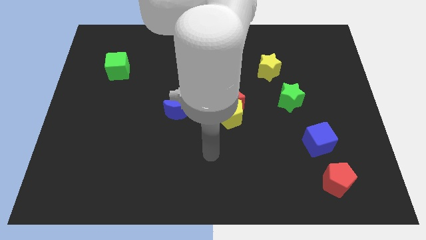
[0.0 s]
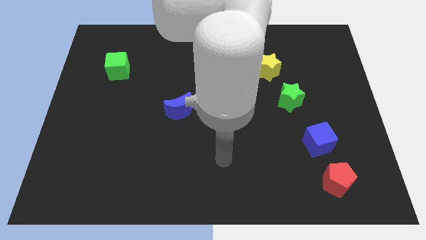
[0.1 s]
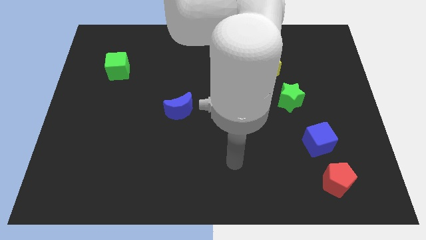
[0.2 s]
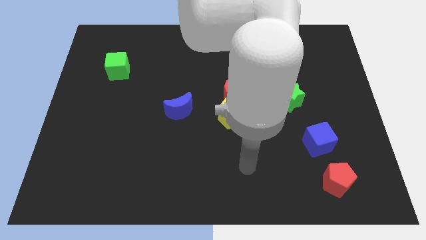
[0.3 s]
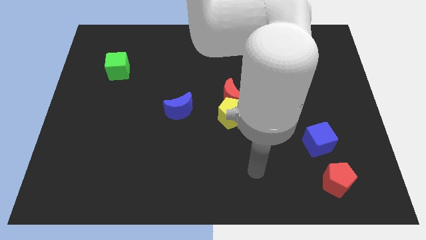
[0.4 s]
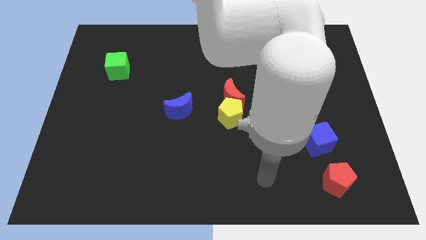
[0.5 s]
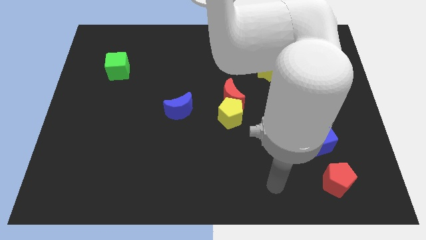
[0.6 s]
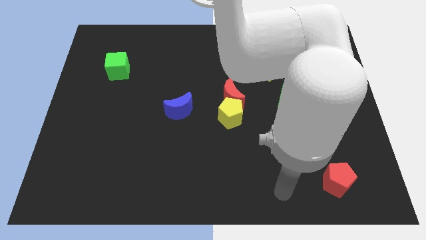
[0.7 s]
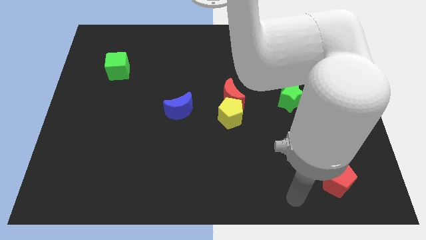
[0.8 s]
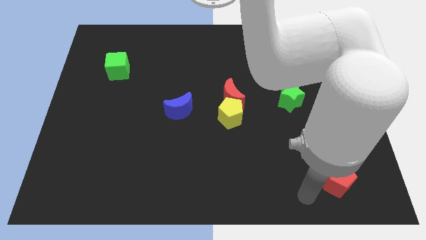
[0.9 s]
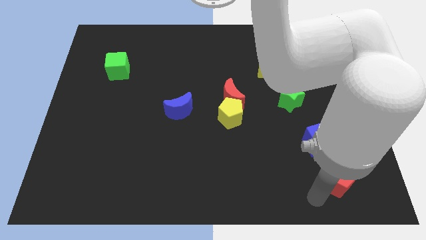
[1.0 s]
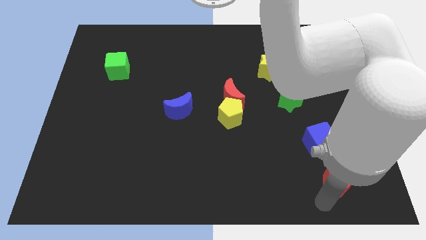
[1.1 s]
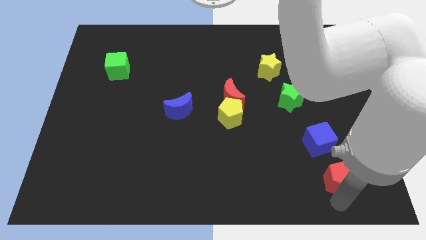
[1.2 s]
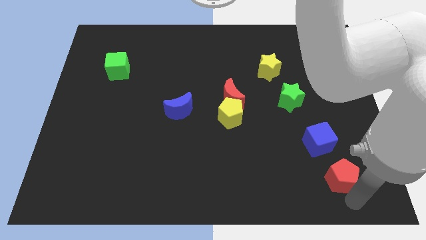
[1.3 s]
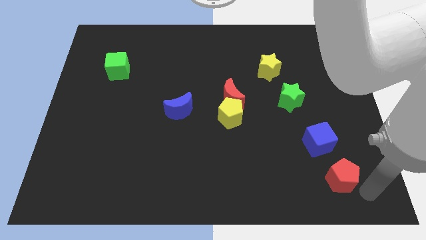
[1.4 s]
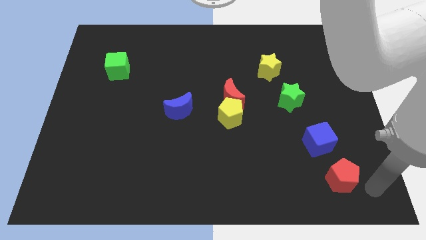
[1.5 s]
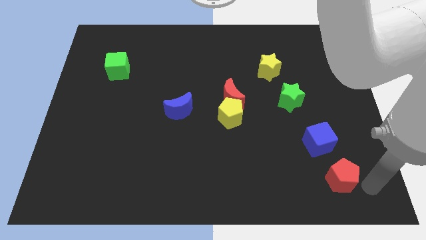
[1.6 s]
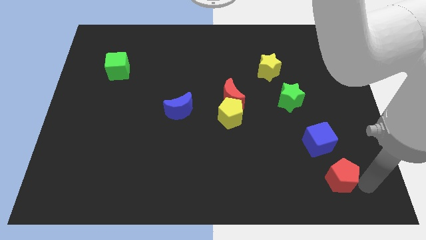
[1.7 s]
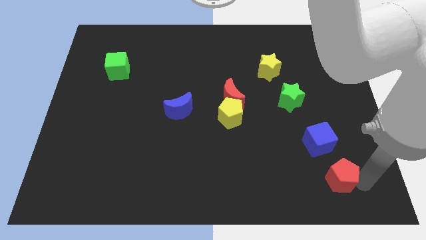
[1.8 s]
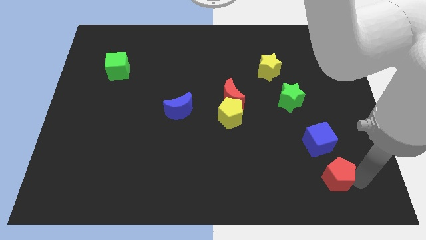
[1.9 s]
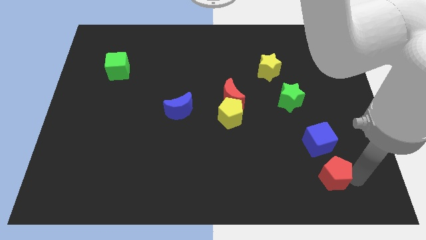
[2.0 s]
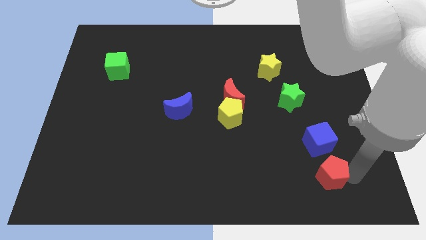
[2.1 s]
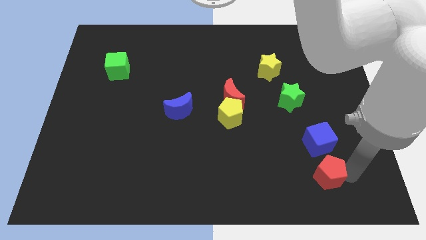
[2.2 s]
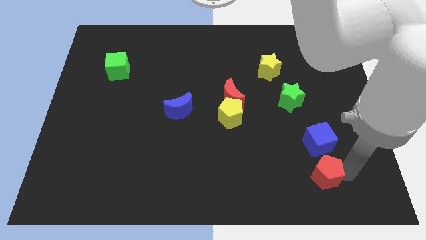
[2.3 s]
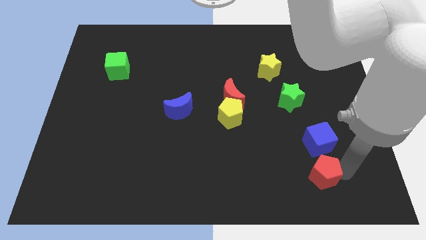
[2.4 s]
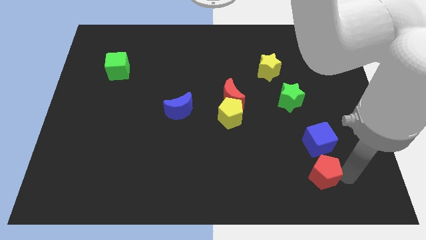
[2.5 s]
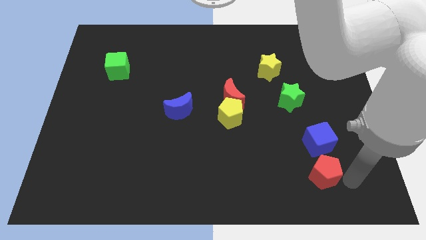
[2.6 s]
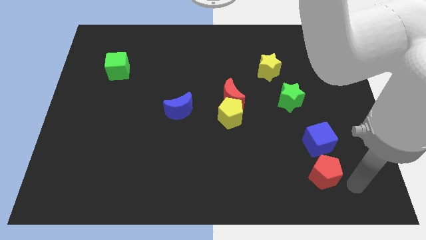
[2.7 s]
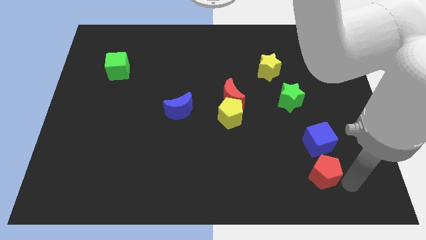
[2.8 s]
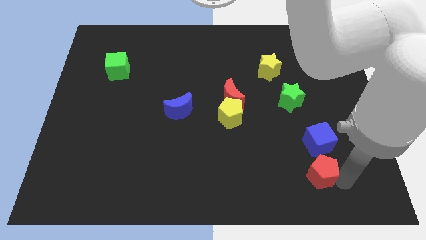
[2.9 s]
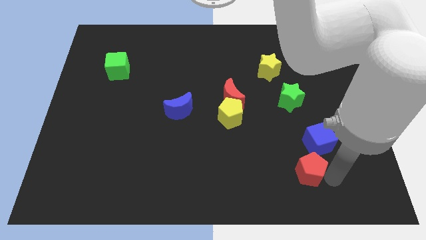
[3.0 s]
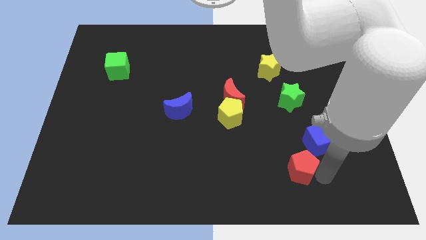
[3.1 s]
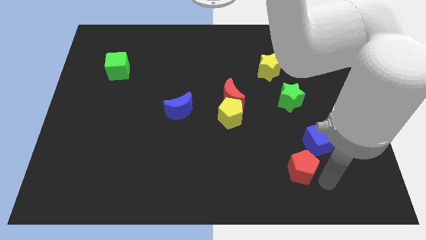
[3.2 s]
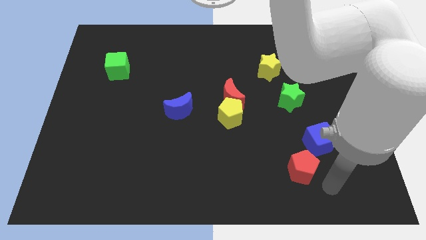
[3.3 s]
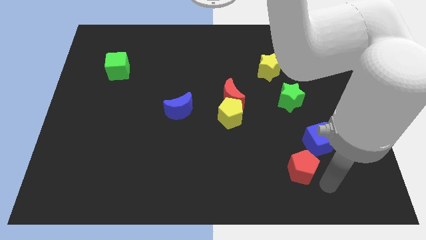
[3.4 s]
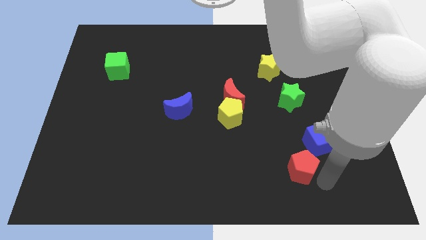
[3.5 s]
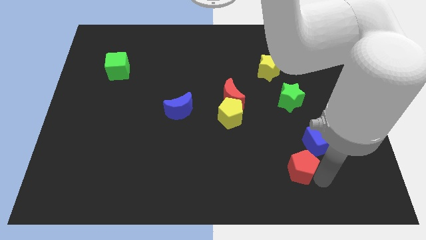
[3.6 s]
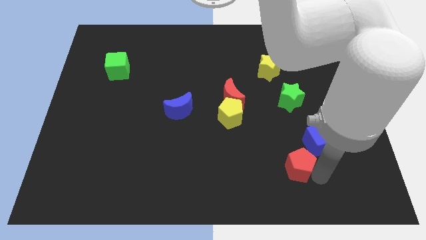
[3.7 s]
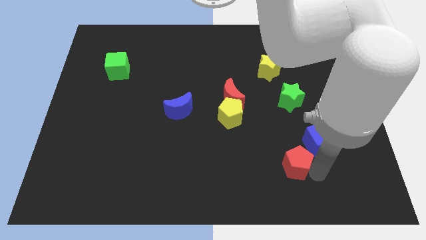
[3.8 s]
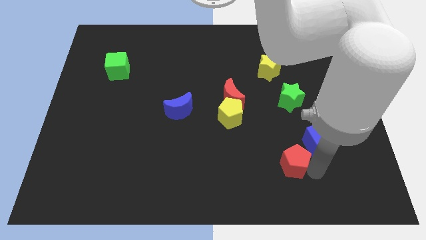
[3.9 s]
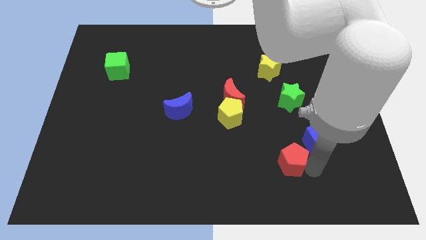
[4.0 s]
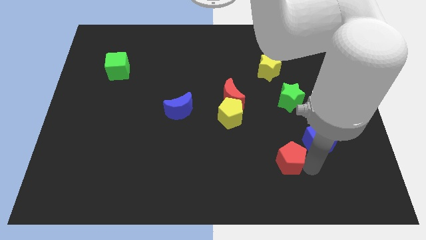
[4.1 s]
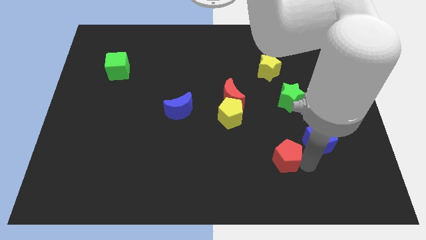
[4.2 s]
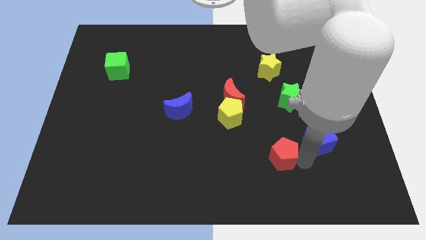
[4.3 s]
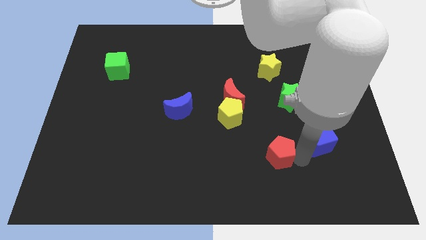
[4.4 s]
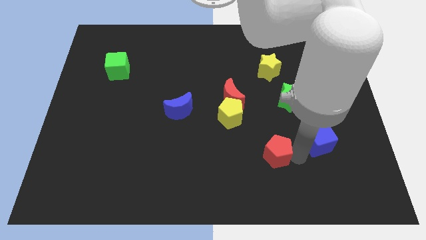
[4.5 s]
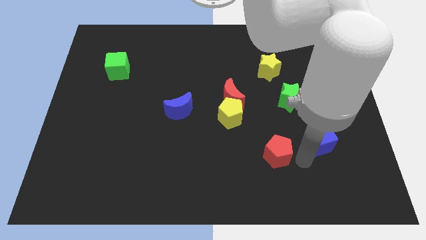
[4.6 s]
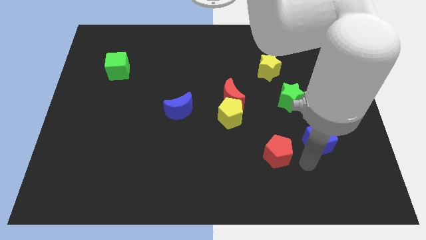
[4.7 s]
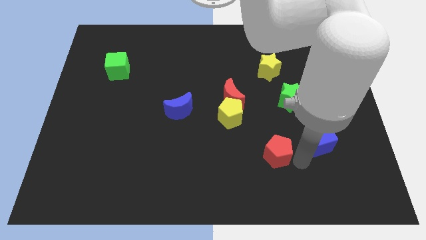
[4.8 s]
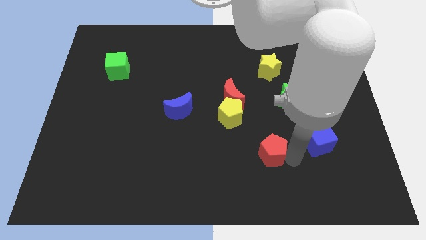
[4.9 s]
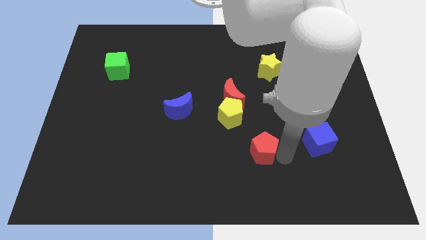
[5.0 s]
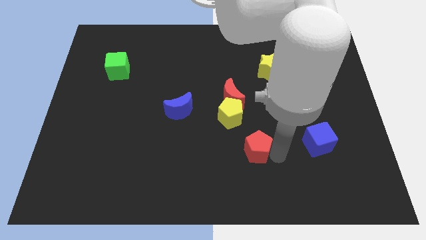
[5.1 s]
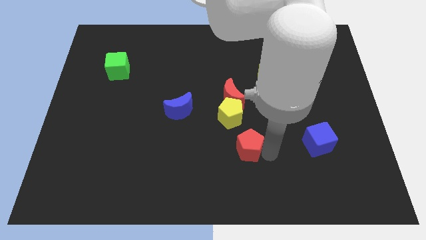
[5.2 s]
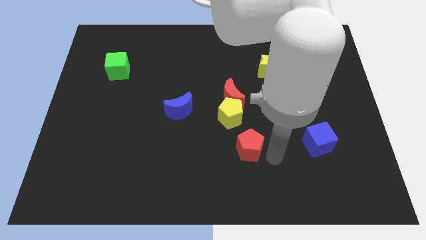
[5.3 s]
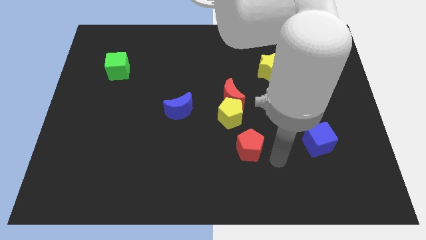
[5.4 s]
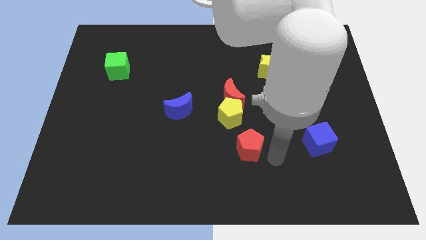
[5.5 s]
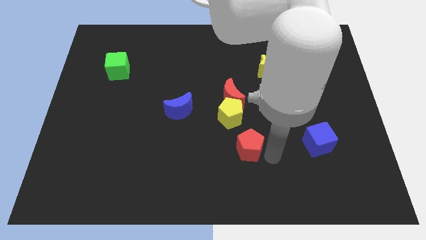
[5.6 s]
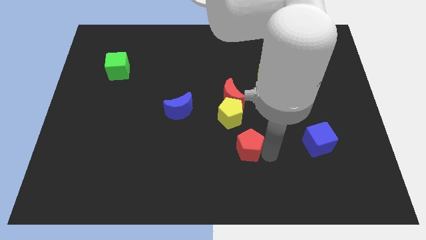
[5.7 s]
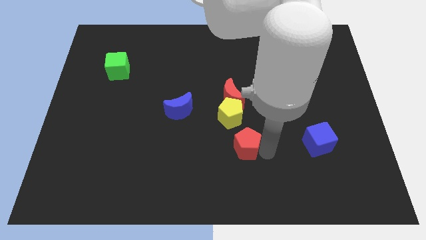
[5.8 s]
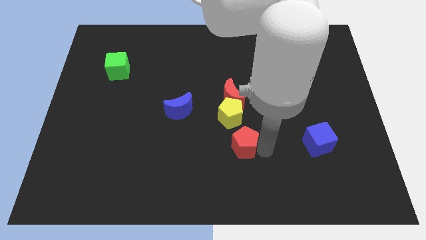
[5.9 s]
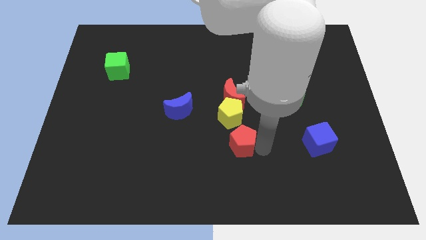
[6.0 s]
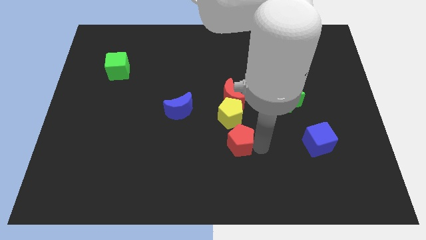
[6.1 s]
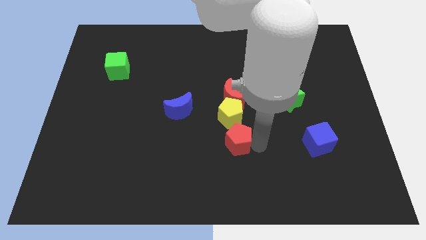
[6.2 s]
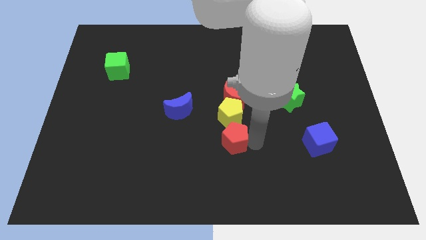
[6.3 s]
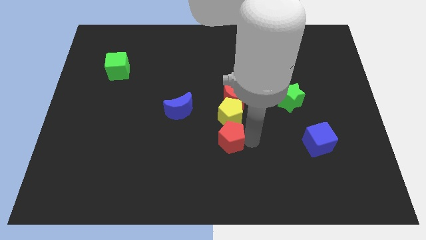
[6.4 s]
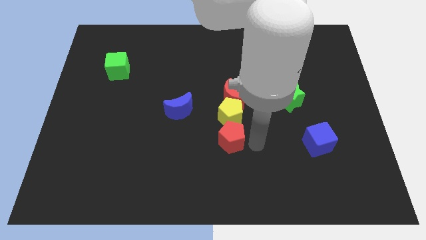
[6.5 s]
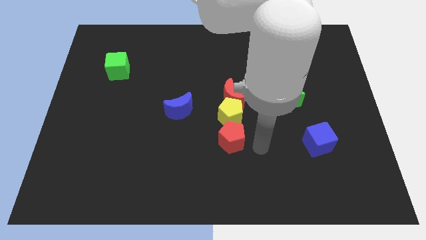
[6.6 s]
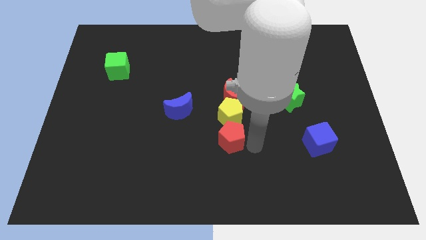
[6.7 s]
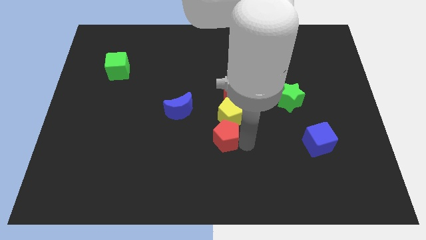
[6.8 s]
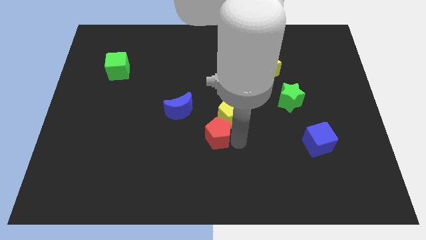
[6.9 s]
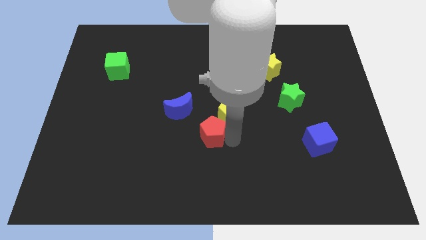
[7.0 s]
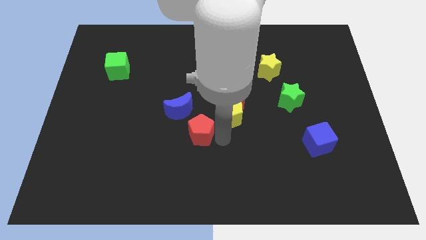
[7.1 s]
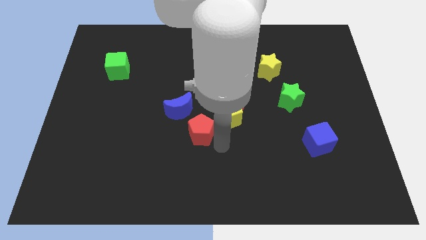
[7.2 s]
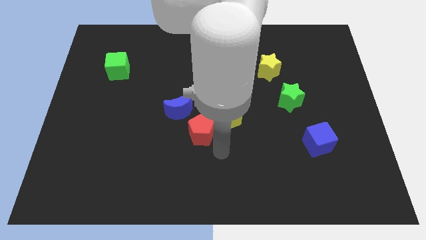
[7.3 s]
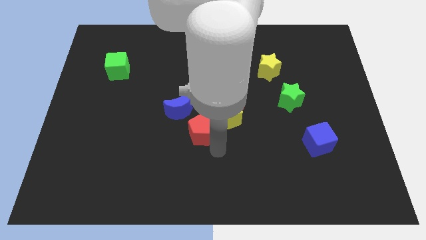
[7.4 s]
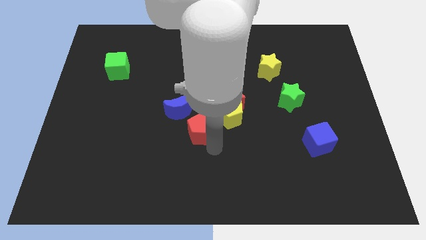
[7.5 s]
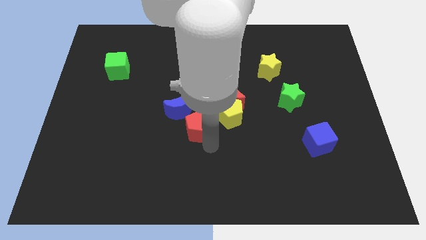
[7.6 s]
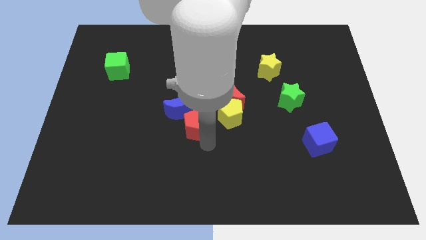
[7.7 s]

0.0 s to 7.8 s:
slide the red pentagon towards the blue moon
